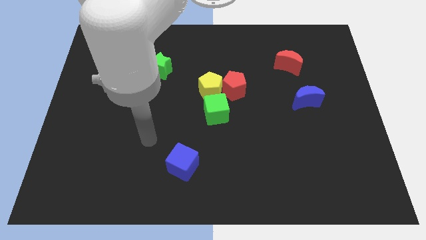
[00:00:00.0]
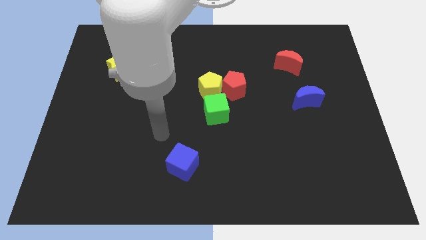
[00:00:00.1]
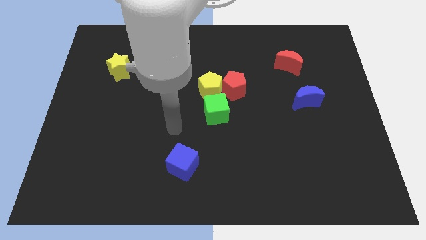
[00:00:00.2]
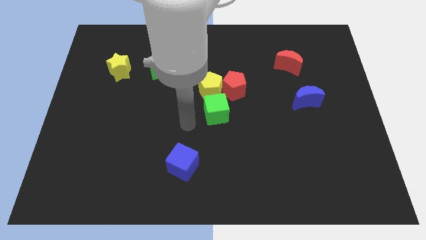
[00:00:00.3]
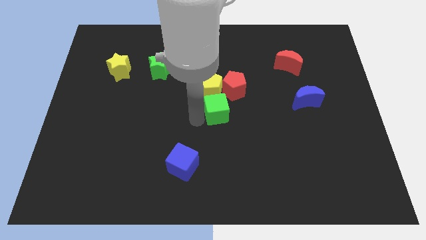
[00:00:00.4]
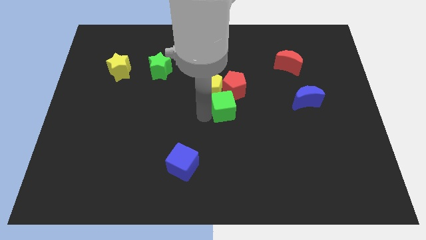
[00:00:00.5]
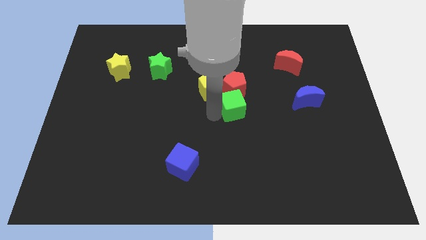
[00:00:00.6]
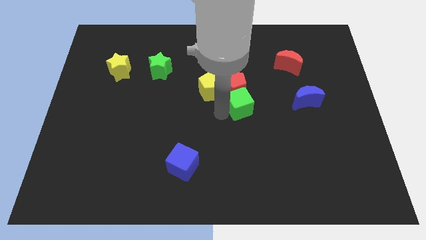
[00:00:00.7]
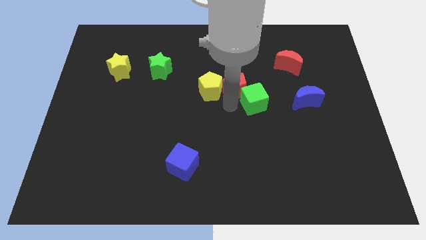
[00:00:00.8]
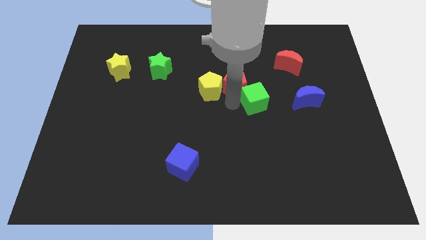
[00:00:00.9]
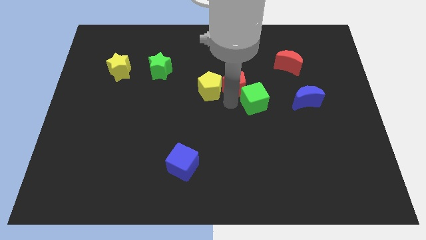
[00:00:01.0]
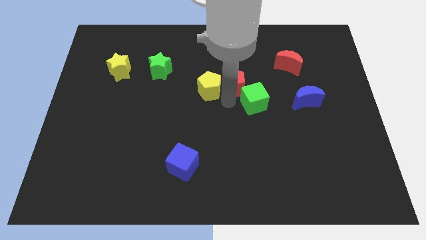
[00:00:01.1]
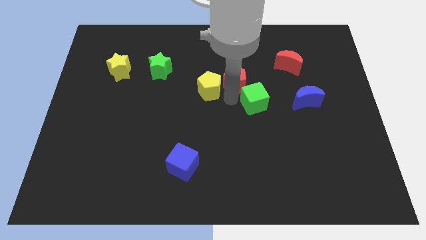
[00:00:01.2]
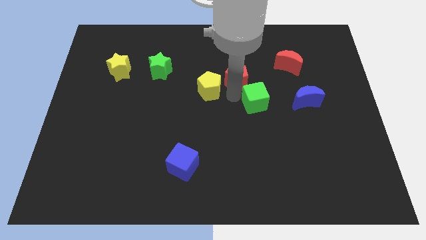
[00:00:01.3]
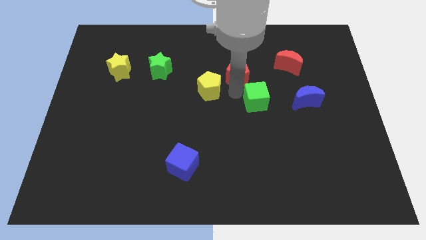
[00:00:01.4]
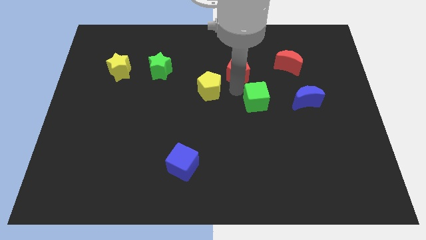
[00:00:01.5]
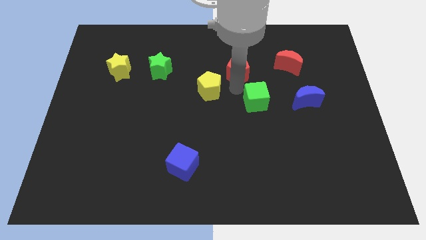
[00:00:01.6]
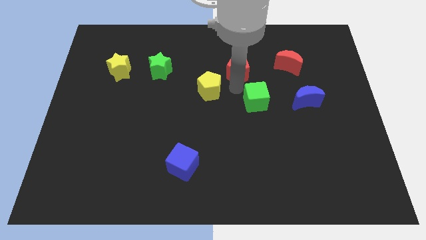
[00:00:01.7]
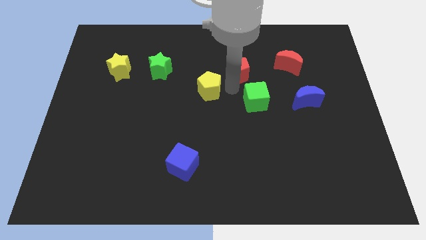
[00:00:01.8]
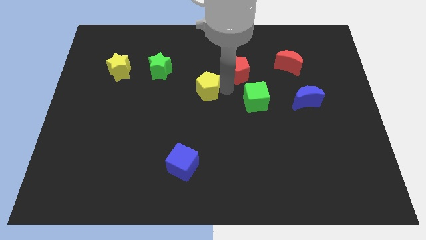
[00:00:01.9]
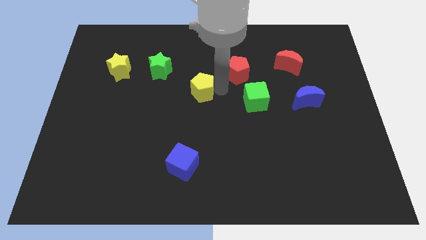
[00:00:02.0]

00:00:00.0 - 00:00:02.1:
move the yellow pentagon away from the red pentagon and green cube

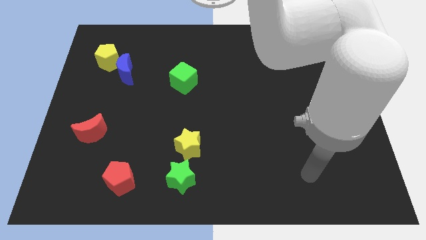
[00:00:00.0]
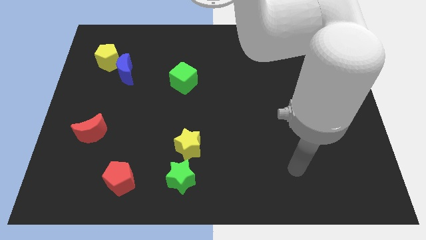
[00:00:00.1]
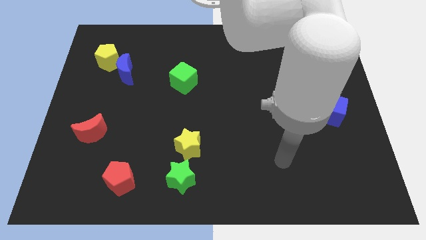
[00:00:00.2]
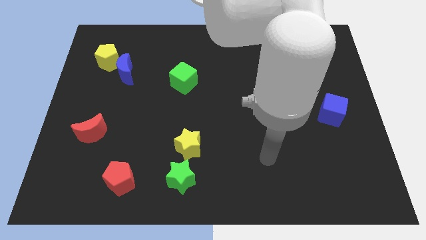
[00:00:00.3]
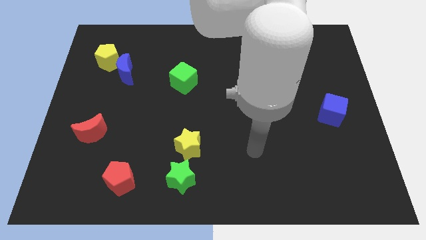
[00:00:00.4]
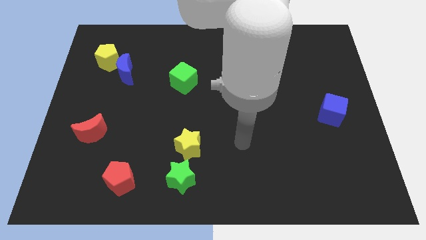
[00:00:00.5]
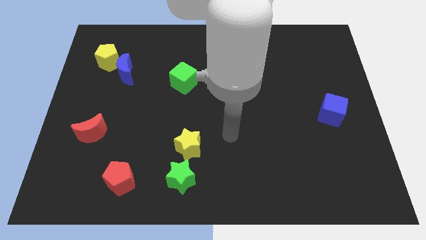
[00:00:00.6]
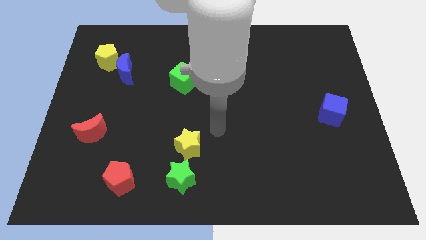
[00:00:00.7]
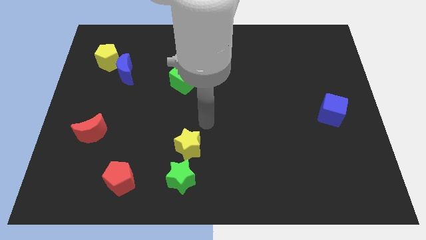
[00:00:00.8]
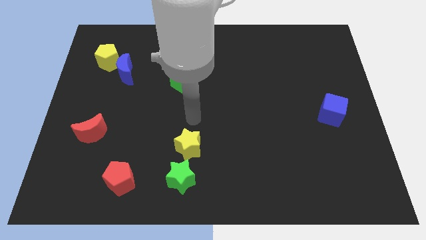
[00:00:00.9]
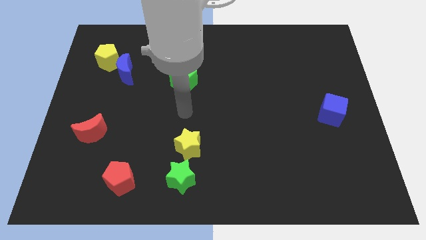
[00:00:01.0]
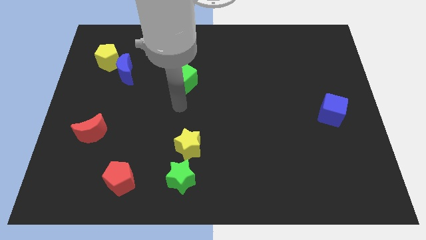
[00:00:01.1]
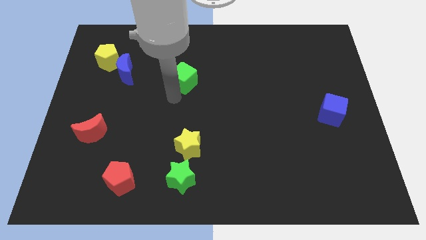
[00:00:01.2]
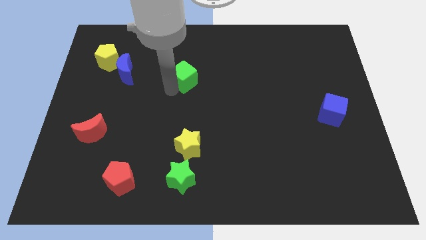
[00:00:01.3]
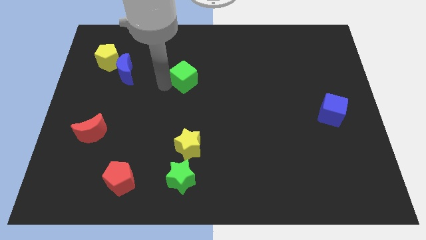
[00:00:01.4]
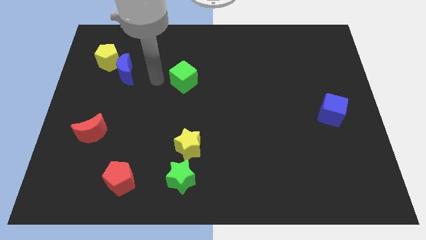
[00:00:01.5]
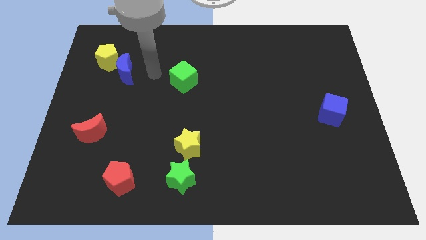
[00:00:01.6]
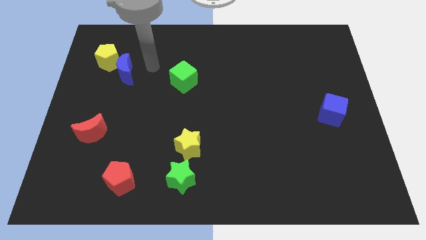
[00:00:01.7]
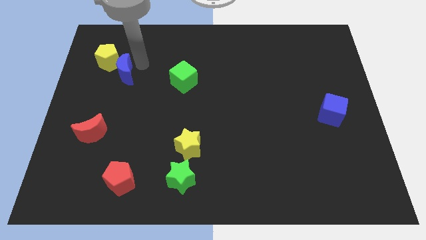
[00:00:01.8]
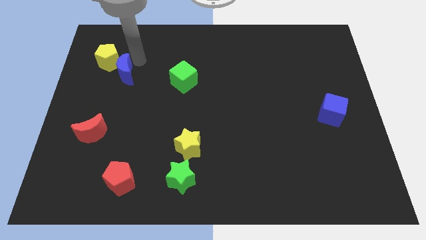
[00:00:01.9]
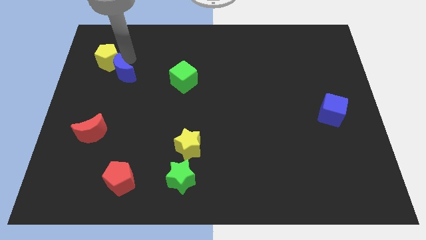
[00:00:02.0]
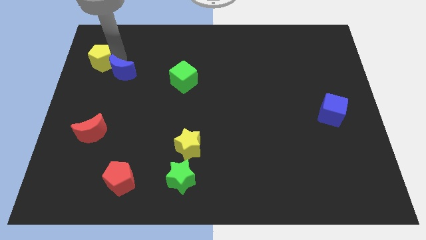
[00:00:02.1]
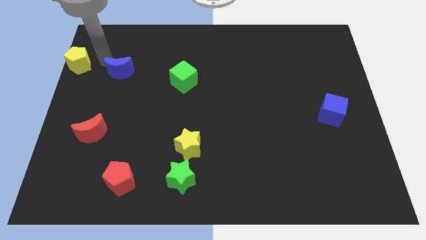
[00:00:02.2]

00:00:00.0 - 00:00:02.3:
separate the blue moon from the yellow pentagon

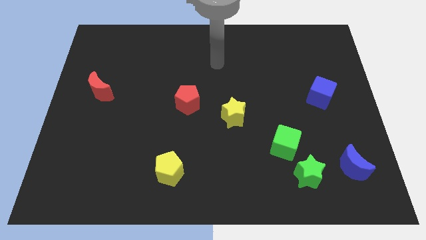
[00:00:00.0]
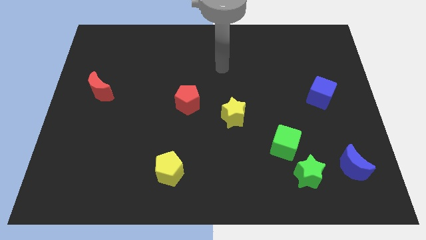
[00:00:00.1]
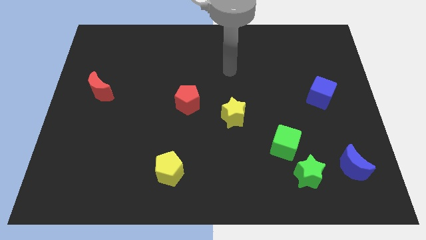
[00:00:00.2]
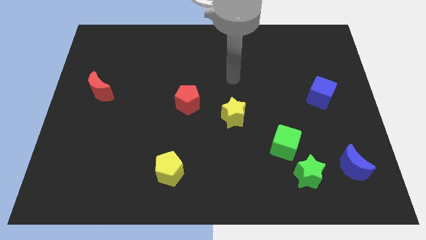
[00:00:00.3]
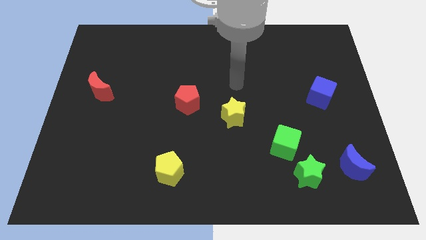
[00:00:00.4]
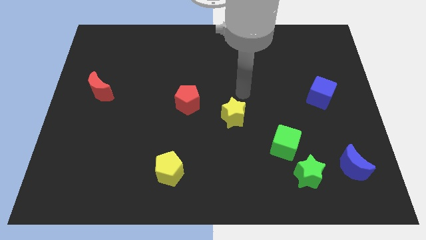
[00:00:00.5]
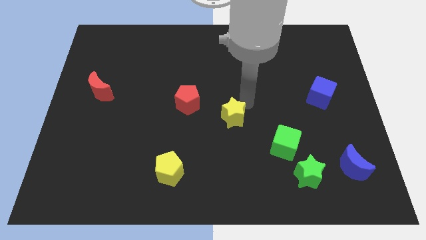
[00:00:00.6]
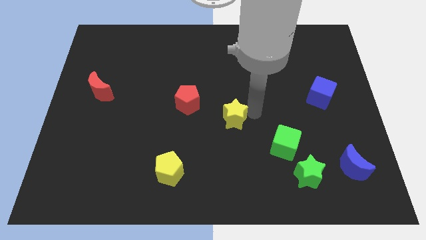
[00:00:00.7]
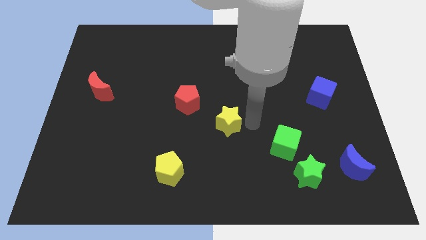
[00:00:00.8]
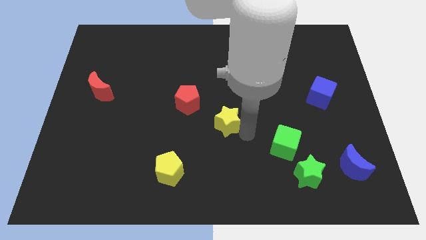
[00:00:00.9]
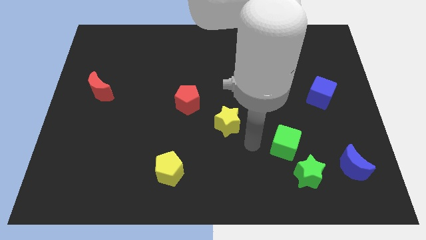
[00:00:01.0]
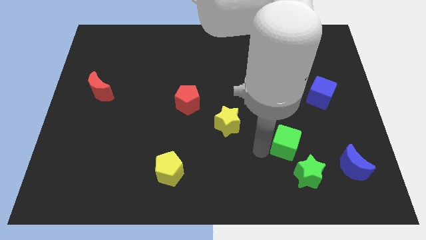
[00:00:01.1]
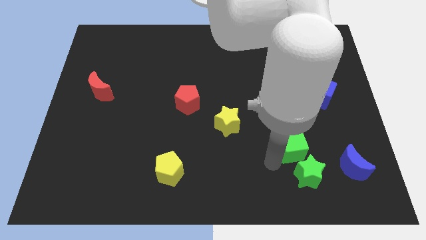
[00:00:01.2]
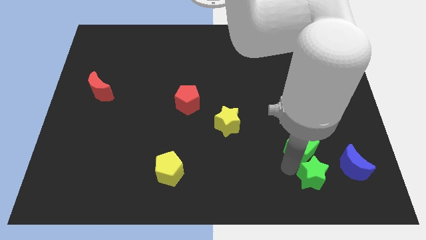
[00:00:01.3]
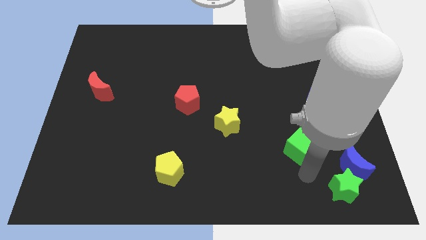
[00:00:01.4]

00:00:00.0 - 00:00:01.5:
move the green cube away from the green star

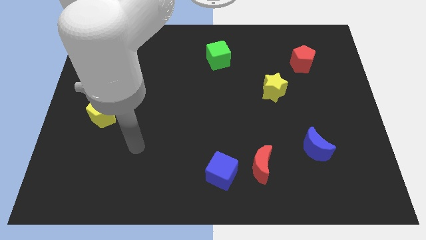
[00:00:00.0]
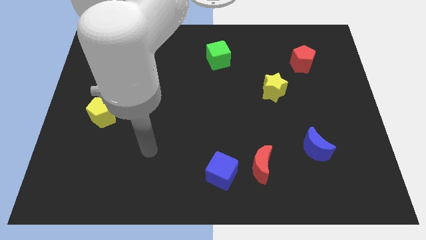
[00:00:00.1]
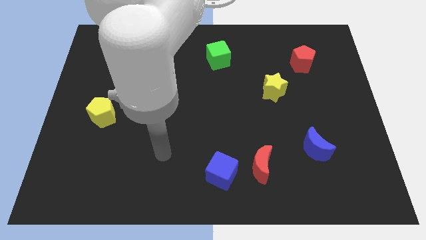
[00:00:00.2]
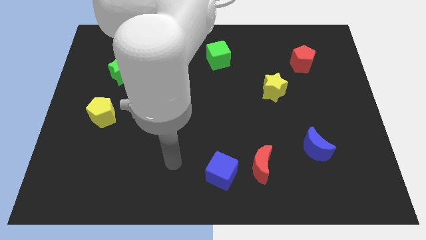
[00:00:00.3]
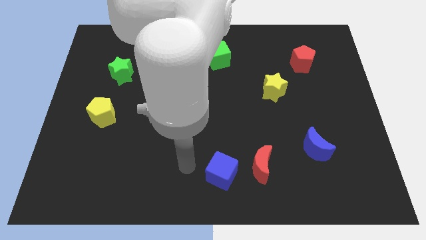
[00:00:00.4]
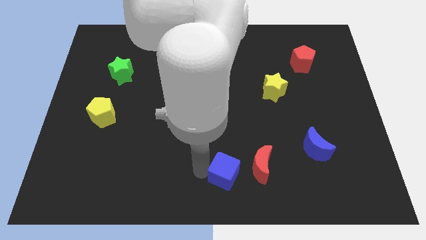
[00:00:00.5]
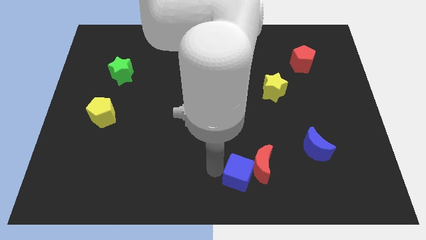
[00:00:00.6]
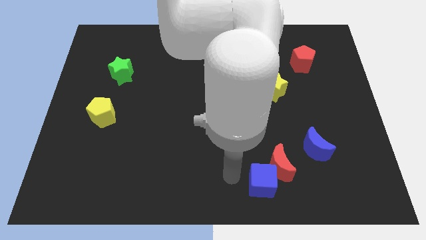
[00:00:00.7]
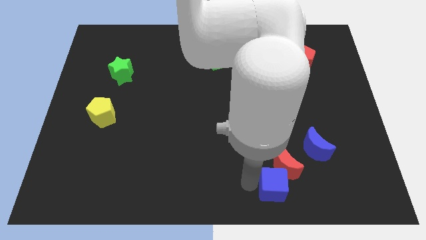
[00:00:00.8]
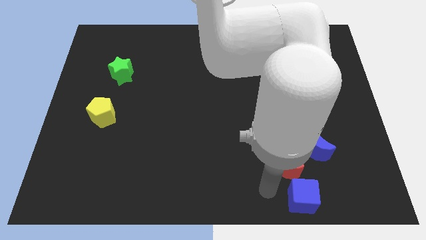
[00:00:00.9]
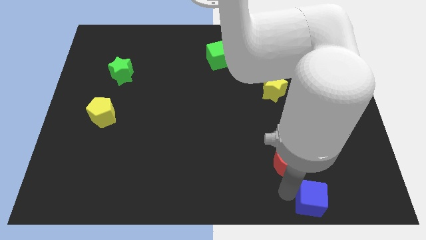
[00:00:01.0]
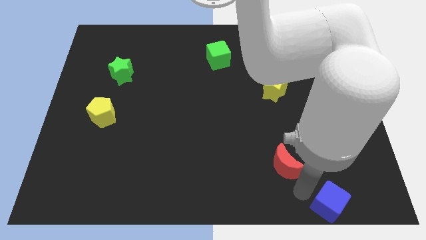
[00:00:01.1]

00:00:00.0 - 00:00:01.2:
separate the red moon from the blue cube

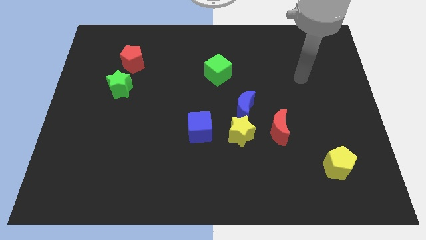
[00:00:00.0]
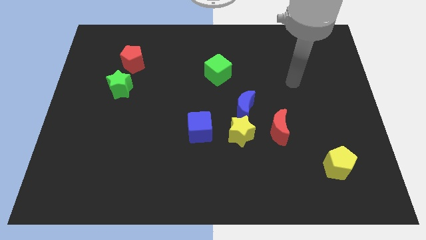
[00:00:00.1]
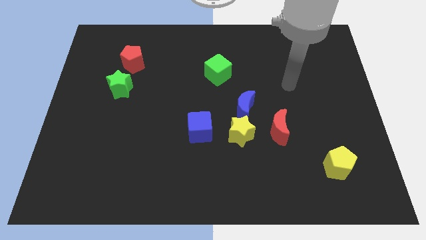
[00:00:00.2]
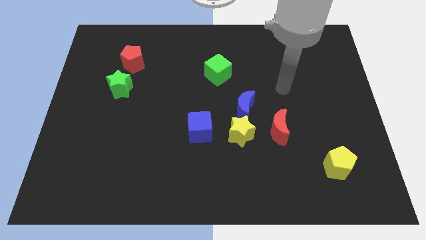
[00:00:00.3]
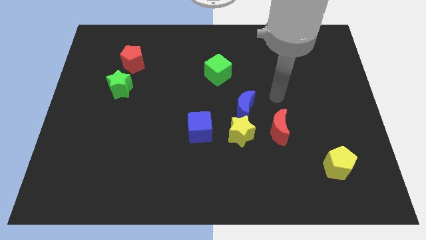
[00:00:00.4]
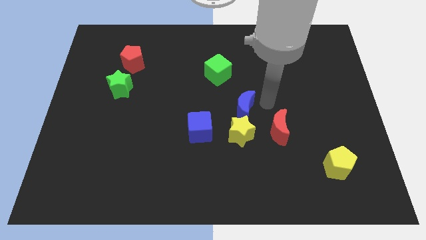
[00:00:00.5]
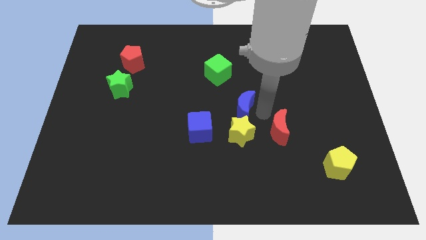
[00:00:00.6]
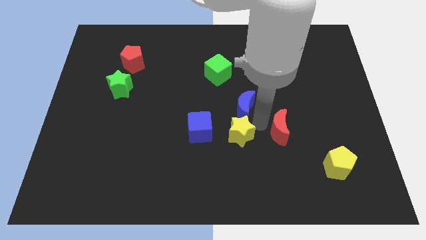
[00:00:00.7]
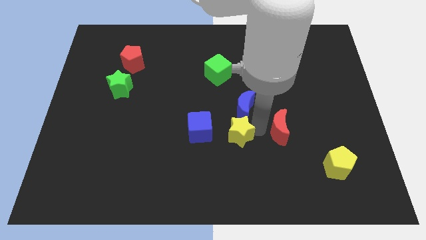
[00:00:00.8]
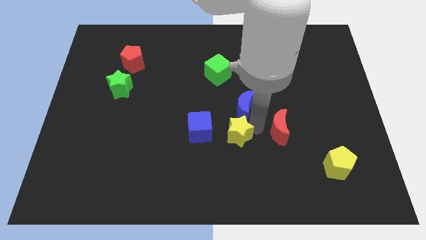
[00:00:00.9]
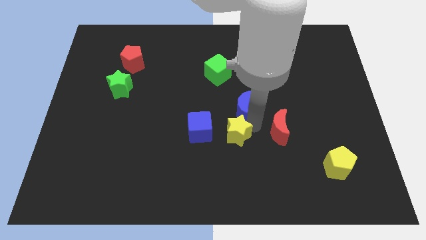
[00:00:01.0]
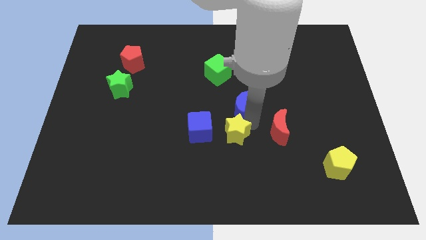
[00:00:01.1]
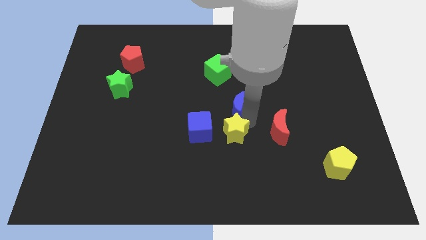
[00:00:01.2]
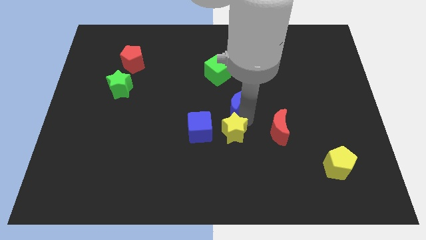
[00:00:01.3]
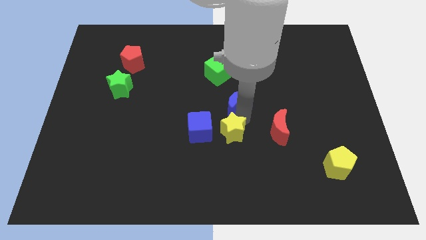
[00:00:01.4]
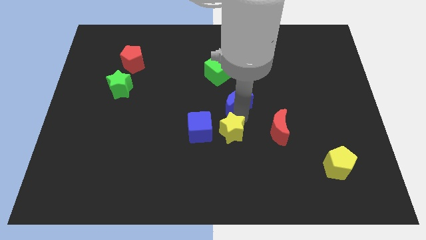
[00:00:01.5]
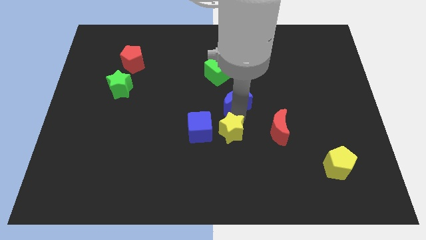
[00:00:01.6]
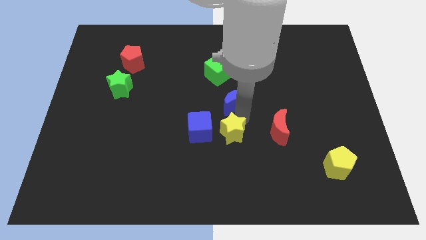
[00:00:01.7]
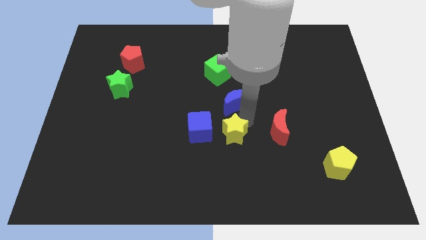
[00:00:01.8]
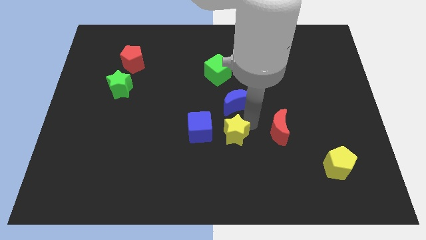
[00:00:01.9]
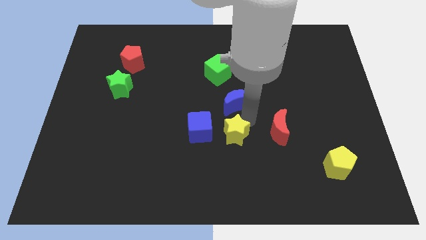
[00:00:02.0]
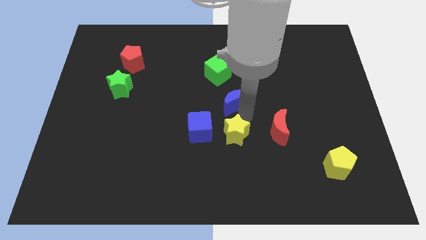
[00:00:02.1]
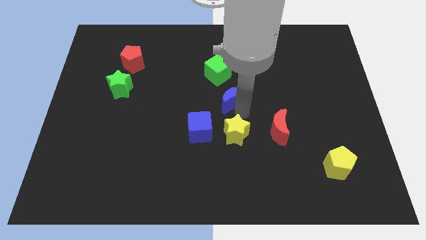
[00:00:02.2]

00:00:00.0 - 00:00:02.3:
separate the blue moon from the yellow star and red moon
